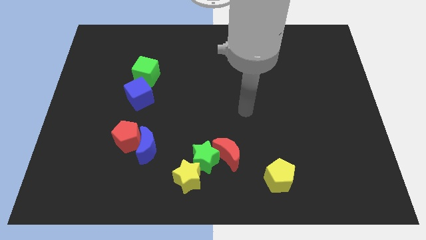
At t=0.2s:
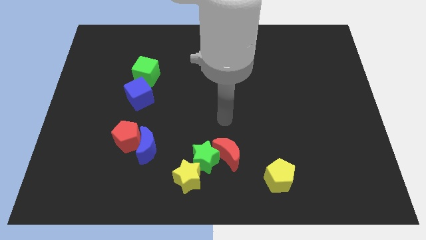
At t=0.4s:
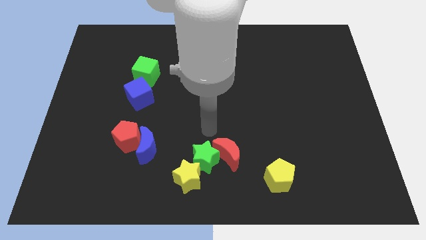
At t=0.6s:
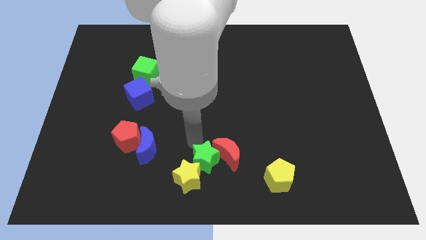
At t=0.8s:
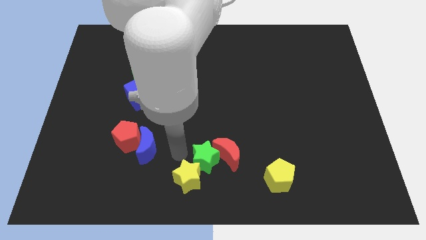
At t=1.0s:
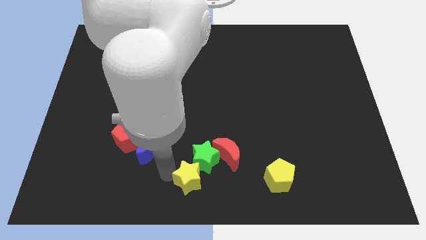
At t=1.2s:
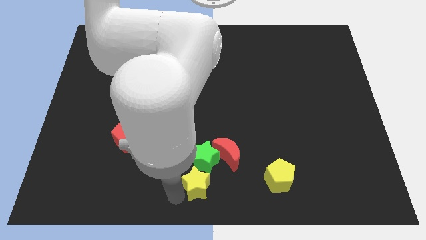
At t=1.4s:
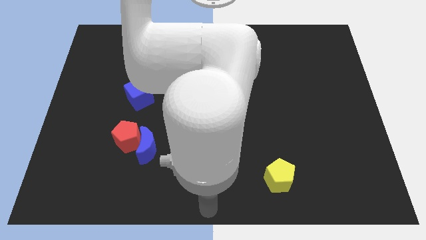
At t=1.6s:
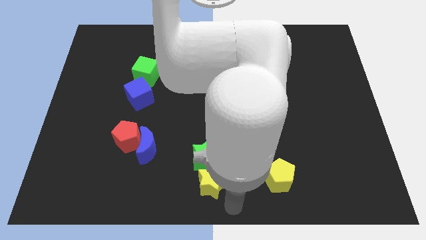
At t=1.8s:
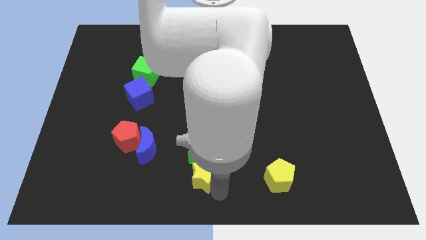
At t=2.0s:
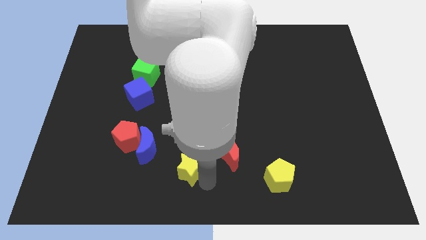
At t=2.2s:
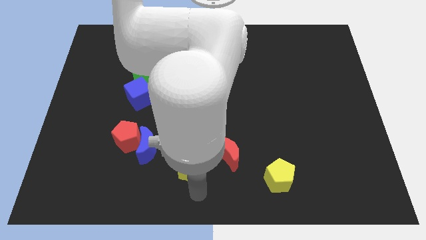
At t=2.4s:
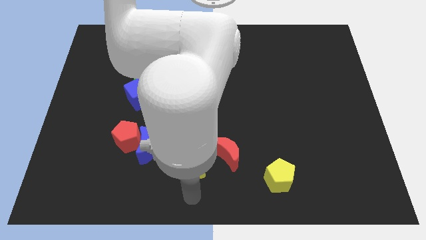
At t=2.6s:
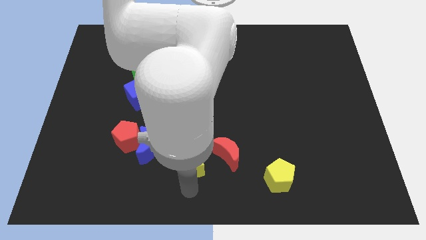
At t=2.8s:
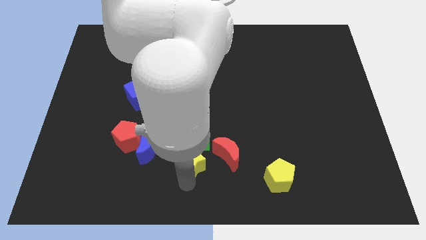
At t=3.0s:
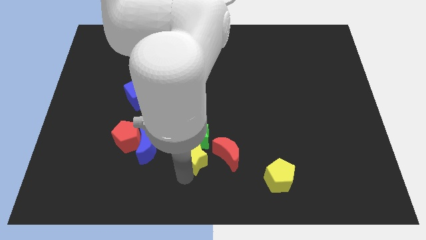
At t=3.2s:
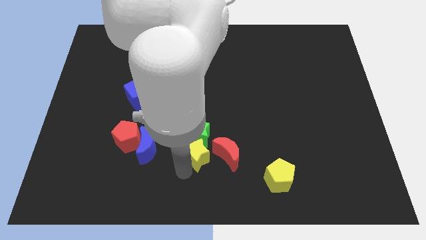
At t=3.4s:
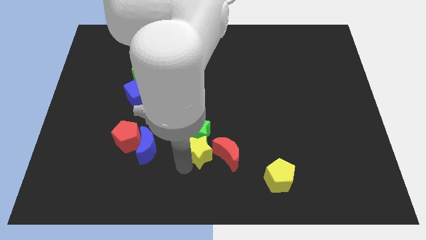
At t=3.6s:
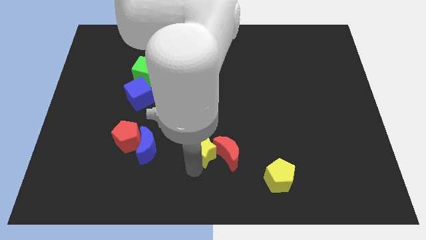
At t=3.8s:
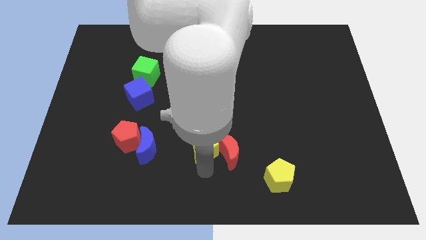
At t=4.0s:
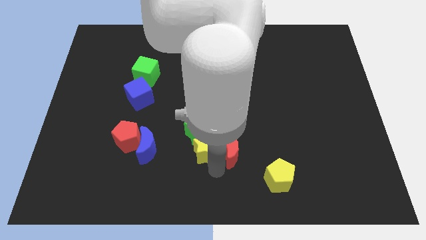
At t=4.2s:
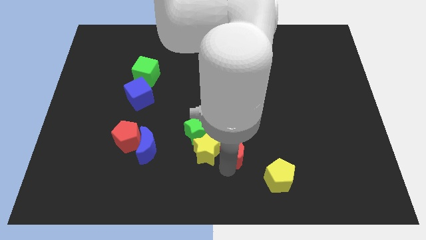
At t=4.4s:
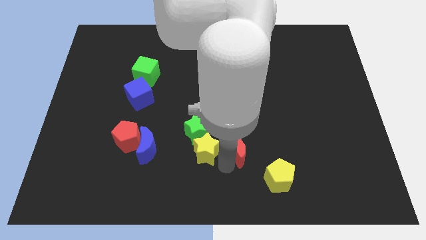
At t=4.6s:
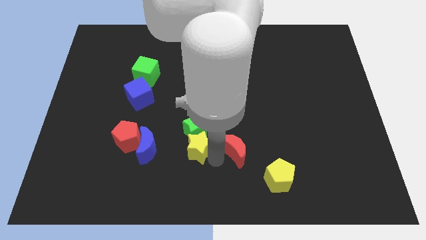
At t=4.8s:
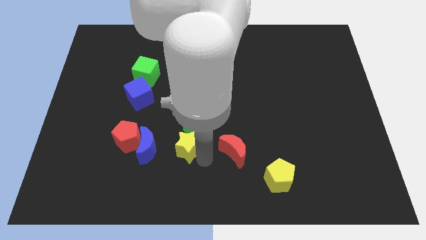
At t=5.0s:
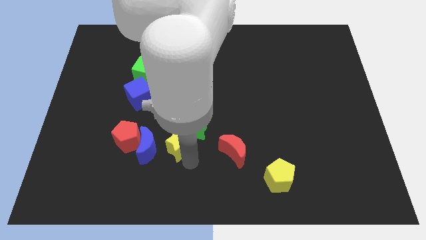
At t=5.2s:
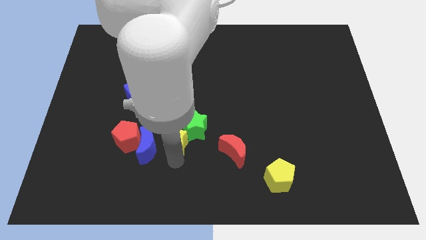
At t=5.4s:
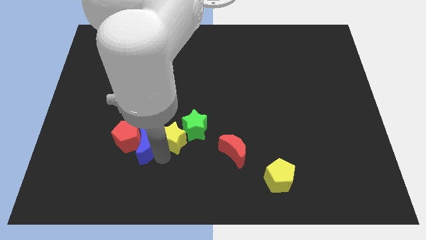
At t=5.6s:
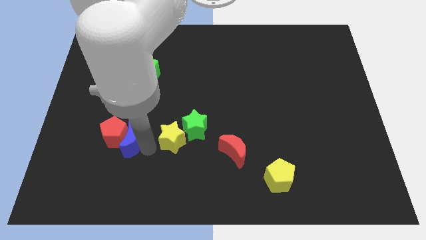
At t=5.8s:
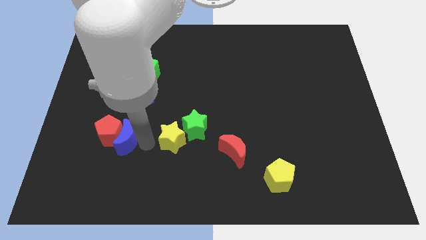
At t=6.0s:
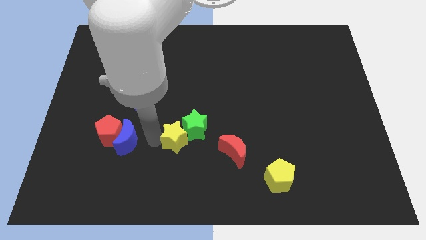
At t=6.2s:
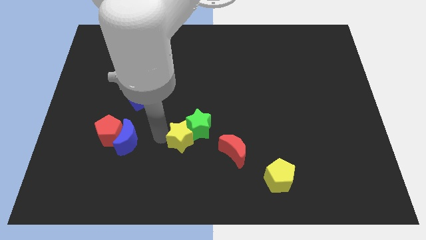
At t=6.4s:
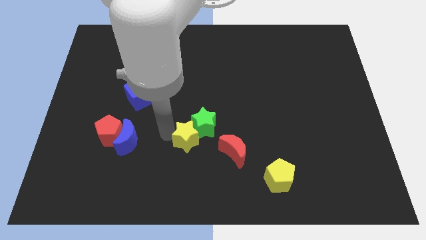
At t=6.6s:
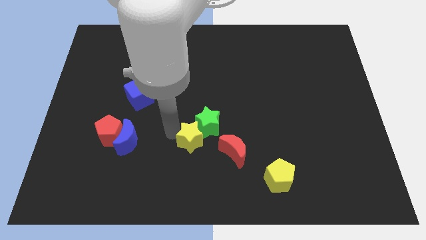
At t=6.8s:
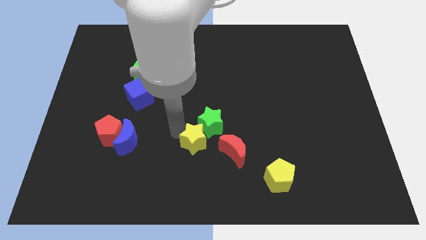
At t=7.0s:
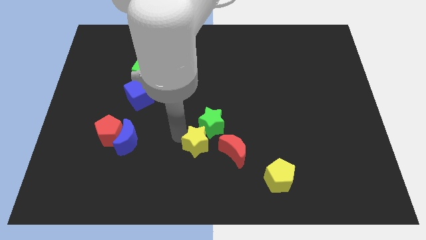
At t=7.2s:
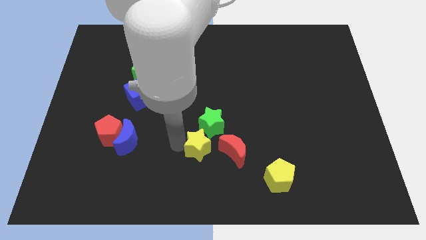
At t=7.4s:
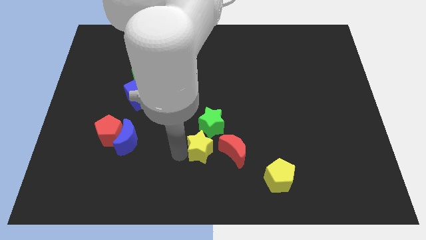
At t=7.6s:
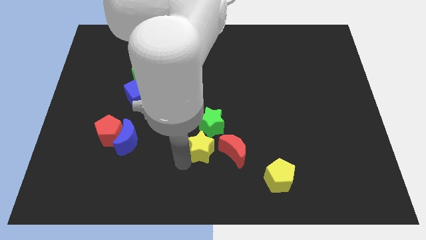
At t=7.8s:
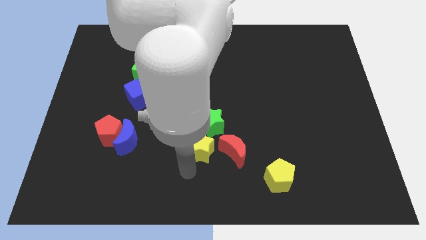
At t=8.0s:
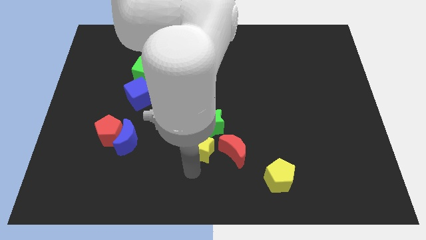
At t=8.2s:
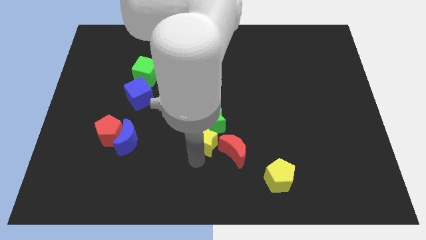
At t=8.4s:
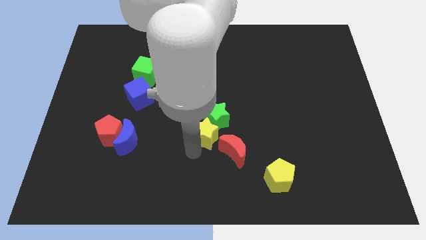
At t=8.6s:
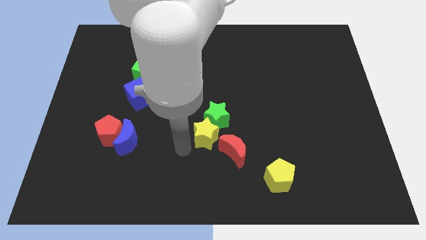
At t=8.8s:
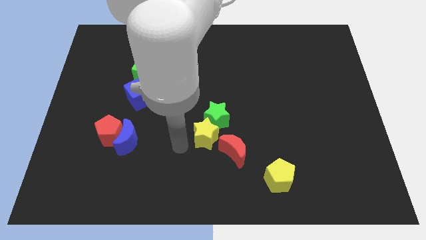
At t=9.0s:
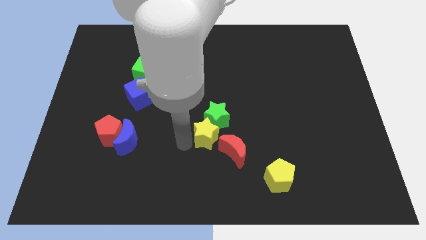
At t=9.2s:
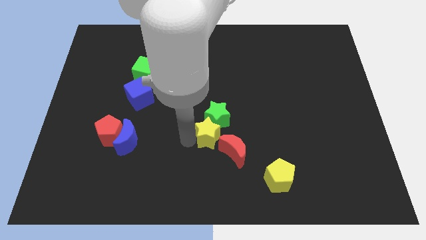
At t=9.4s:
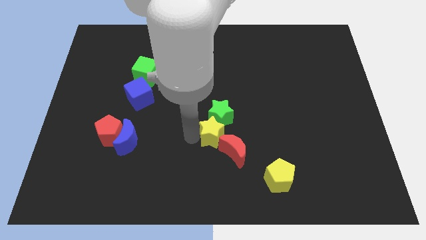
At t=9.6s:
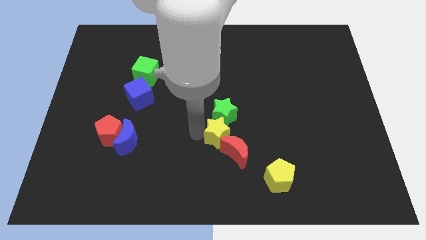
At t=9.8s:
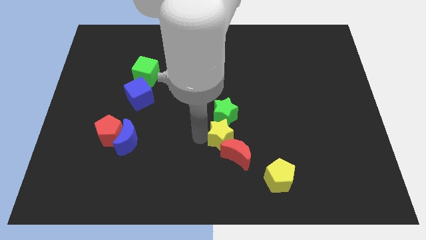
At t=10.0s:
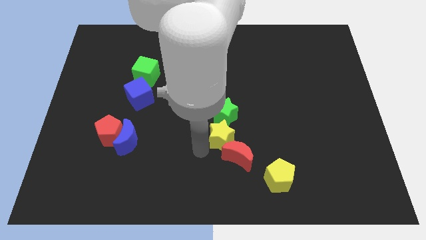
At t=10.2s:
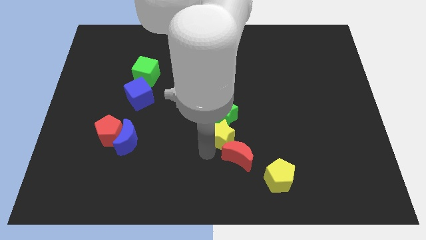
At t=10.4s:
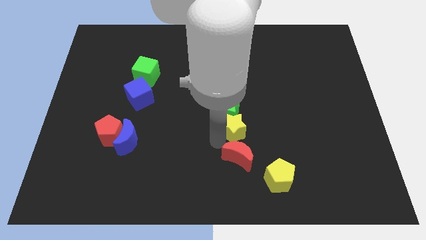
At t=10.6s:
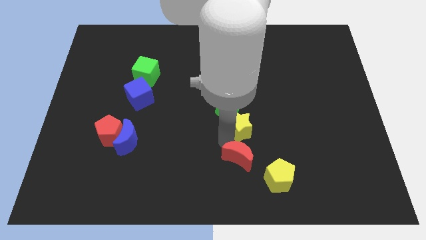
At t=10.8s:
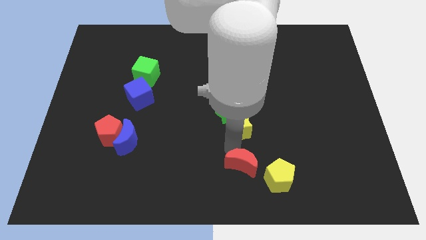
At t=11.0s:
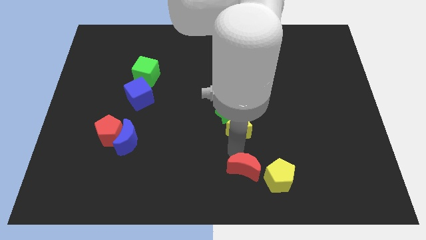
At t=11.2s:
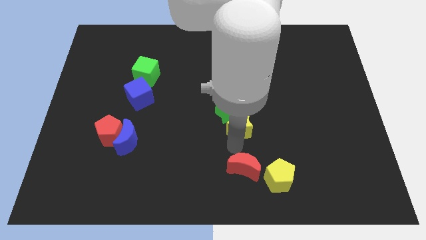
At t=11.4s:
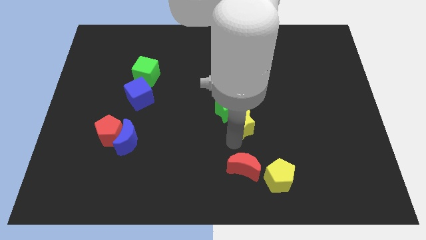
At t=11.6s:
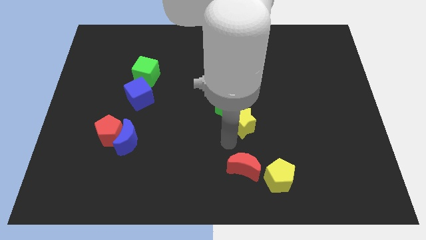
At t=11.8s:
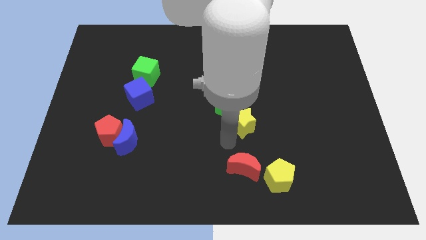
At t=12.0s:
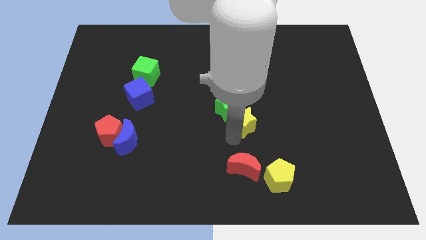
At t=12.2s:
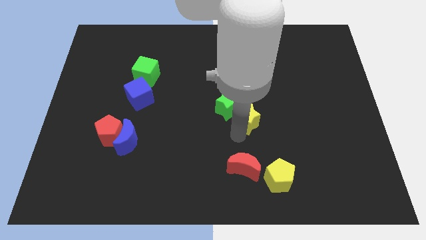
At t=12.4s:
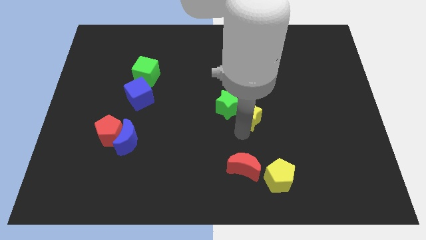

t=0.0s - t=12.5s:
move the yellow star upwards and then to the right

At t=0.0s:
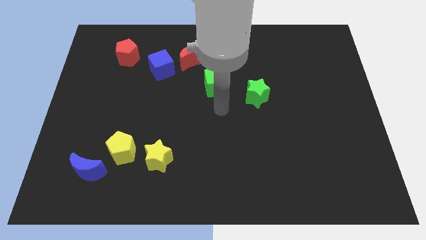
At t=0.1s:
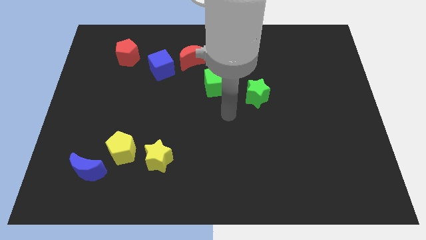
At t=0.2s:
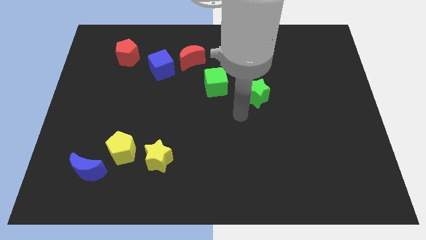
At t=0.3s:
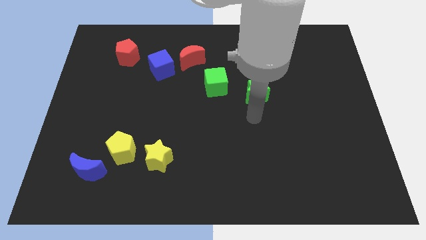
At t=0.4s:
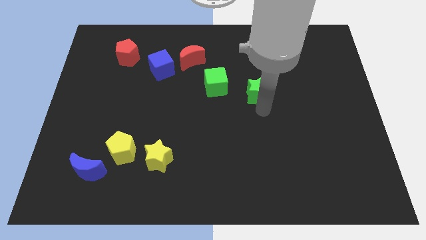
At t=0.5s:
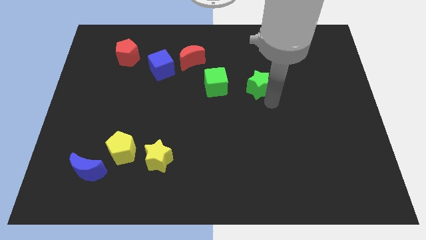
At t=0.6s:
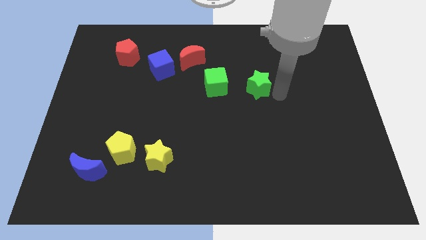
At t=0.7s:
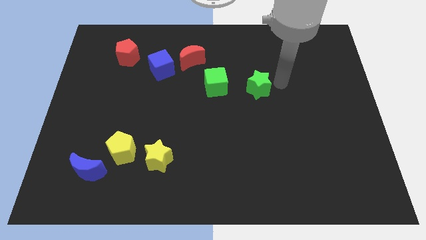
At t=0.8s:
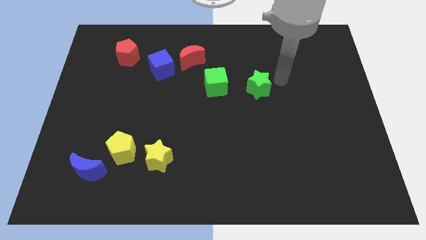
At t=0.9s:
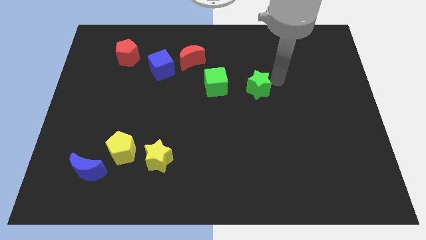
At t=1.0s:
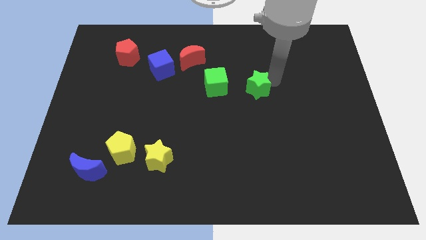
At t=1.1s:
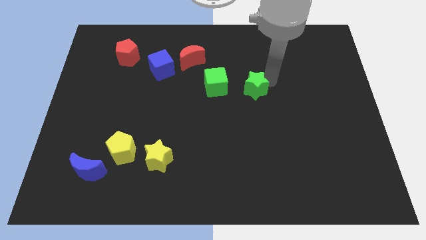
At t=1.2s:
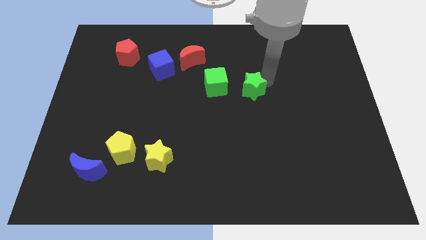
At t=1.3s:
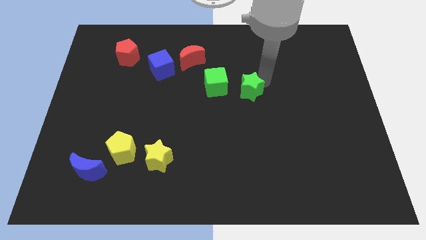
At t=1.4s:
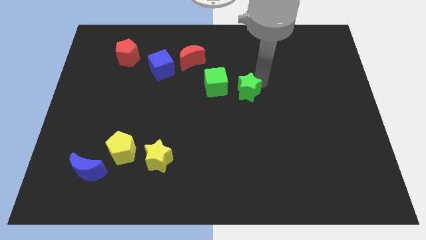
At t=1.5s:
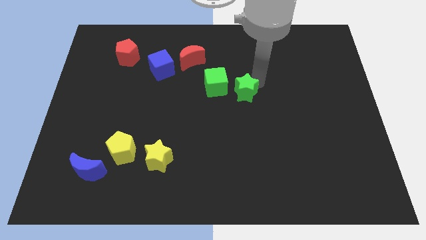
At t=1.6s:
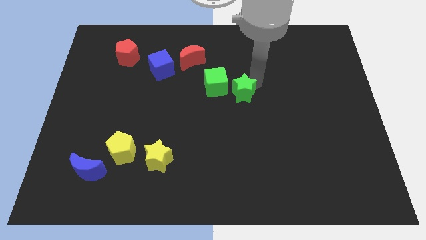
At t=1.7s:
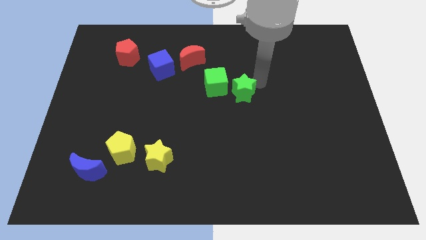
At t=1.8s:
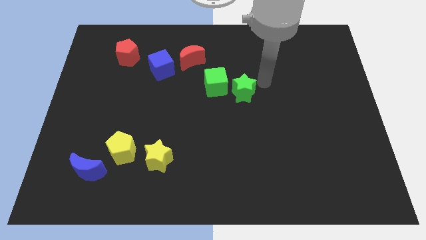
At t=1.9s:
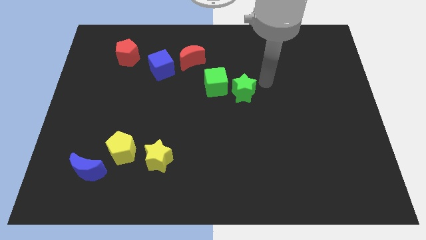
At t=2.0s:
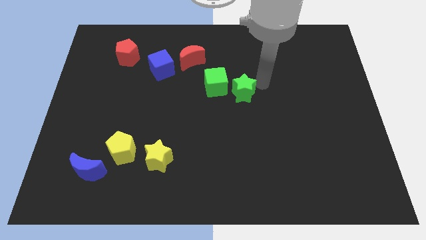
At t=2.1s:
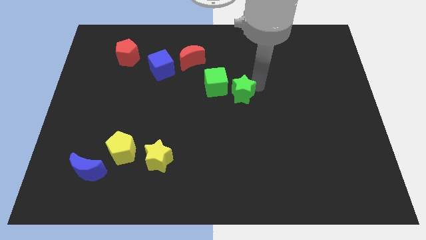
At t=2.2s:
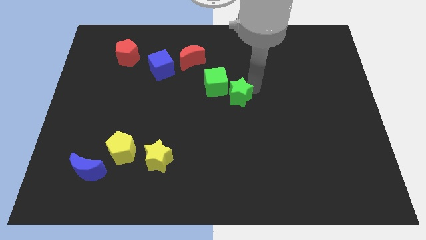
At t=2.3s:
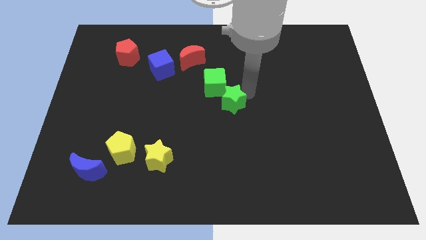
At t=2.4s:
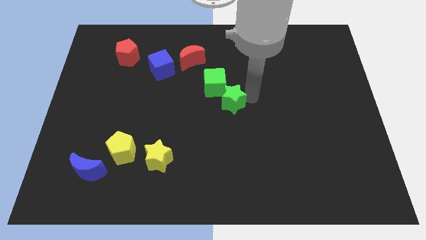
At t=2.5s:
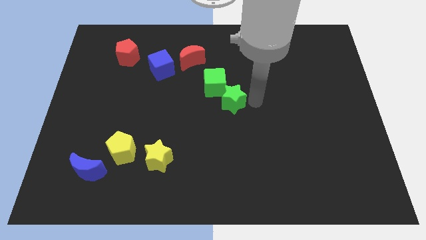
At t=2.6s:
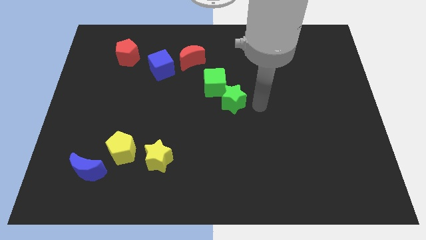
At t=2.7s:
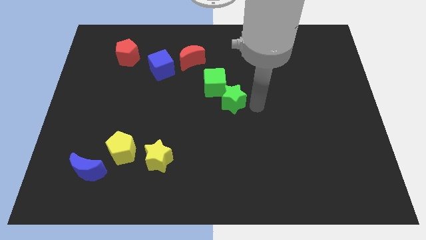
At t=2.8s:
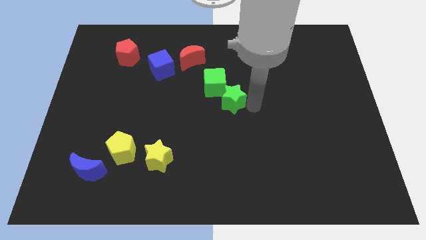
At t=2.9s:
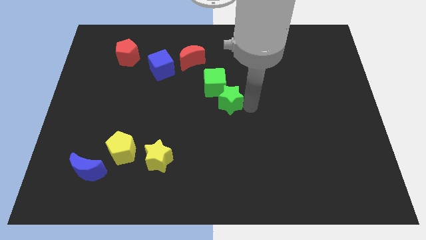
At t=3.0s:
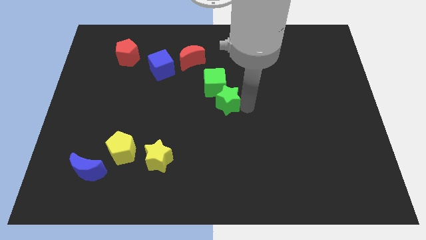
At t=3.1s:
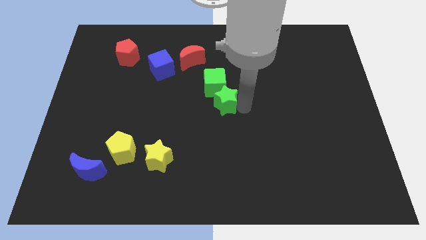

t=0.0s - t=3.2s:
move the green star left somewhat
